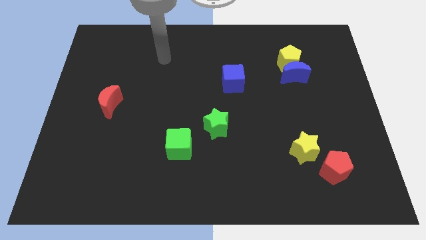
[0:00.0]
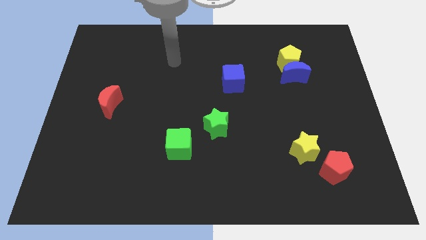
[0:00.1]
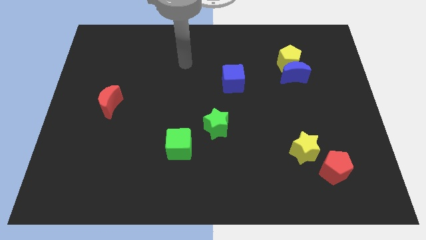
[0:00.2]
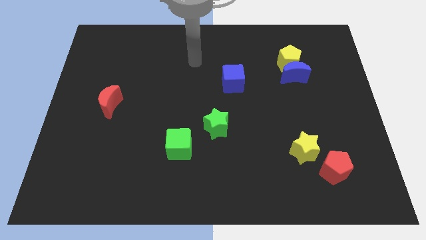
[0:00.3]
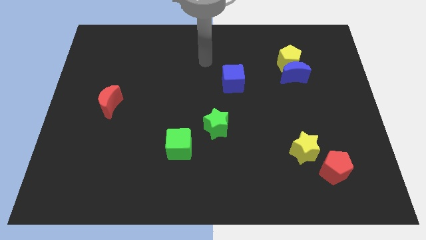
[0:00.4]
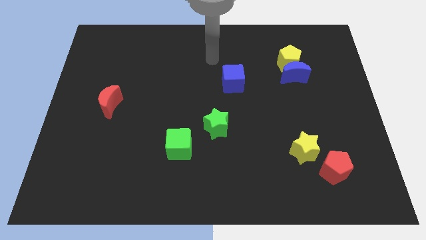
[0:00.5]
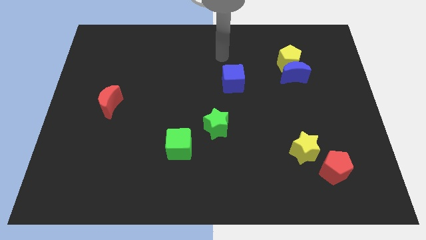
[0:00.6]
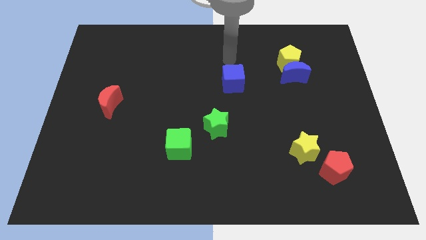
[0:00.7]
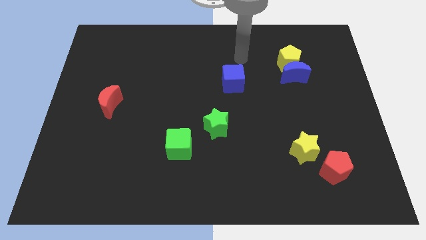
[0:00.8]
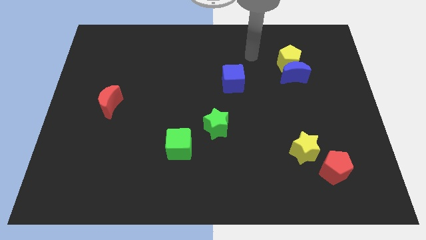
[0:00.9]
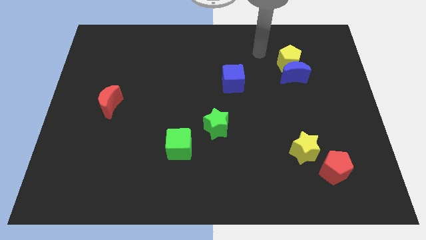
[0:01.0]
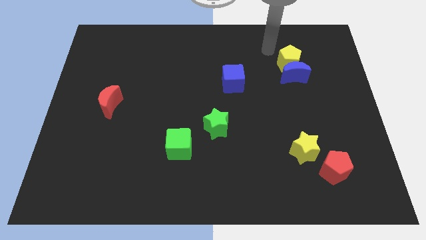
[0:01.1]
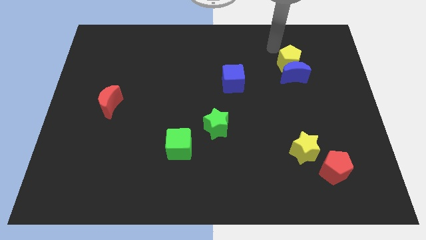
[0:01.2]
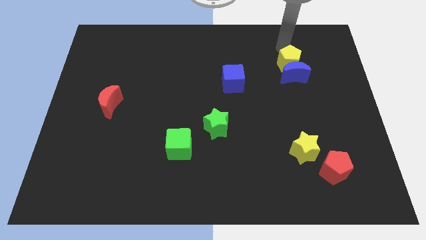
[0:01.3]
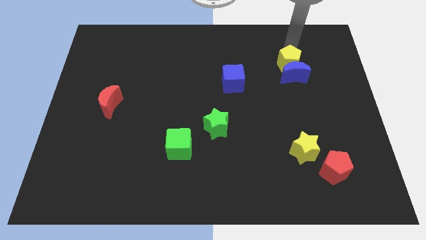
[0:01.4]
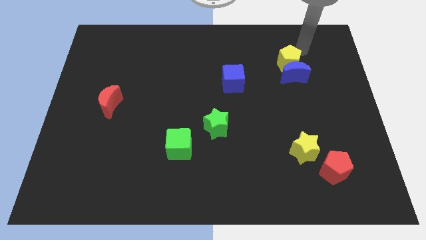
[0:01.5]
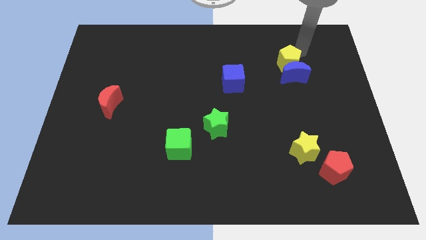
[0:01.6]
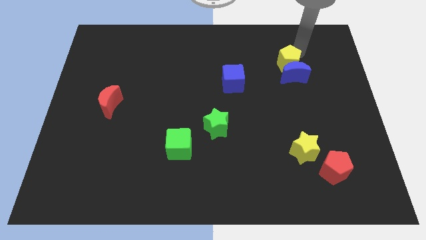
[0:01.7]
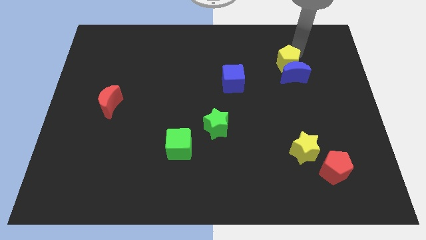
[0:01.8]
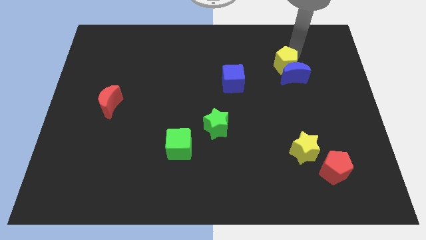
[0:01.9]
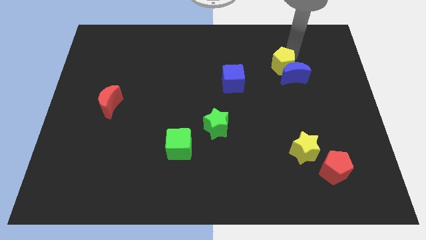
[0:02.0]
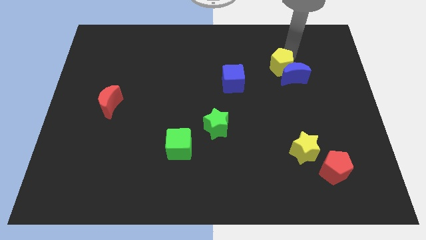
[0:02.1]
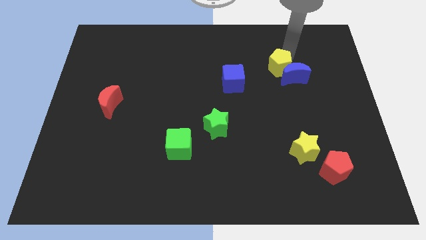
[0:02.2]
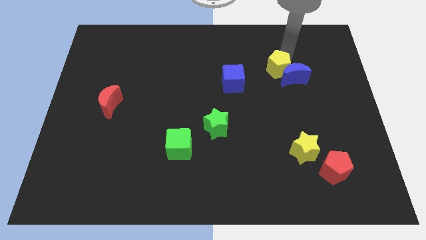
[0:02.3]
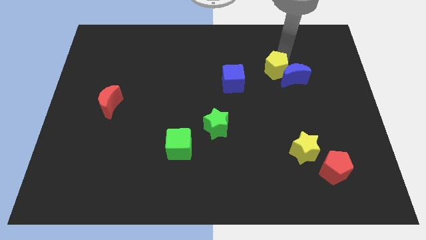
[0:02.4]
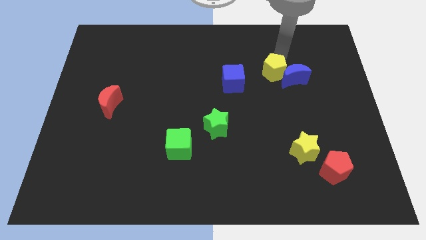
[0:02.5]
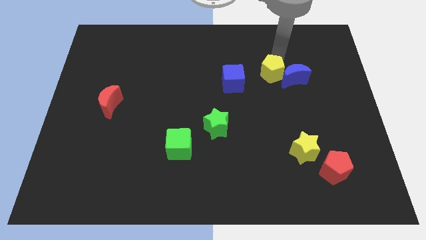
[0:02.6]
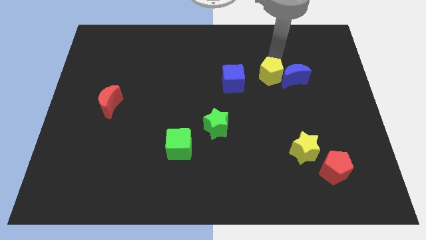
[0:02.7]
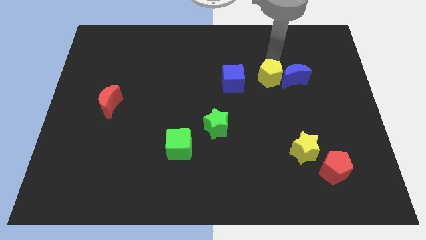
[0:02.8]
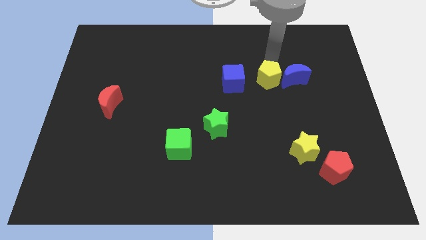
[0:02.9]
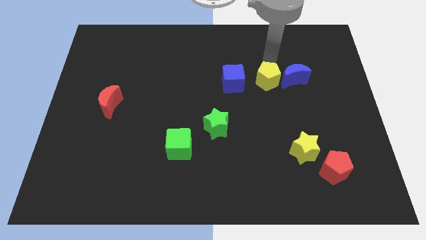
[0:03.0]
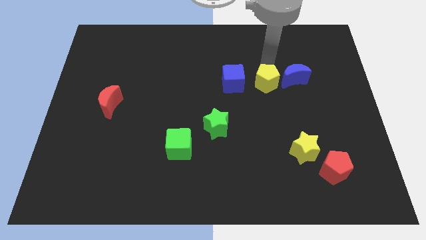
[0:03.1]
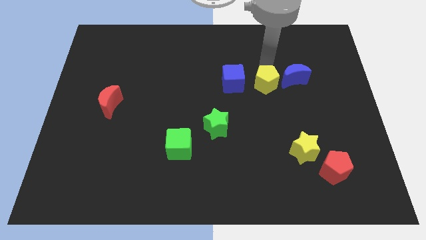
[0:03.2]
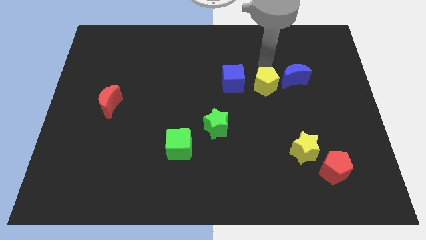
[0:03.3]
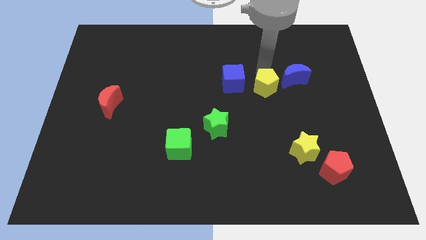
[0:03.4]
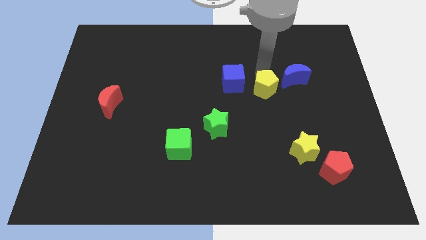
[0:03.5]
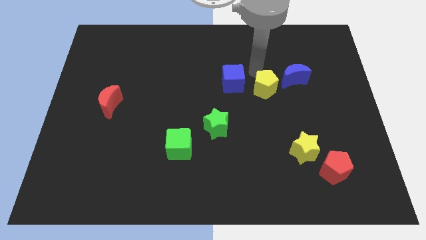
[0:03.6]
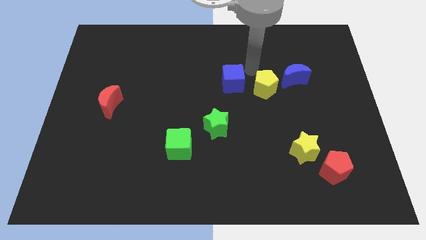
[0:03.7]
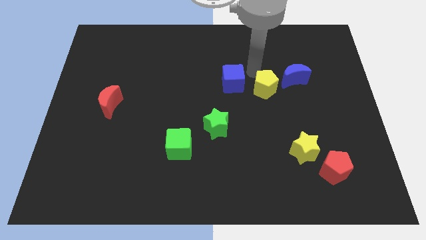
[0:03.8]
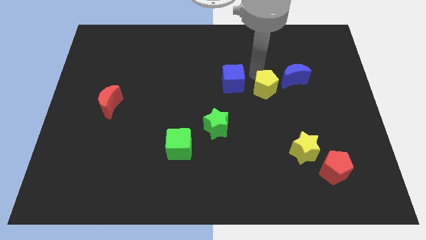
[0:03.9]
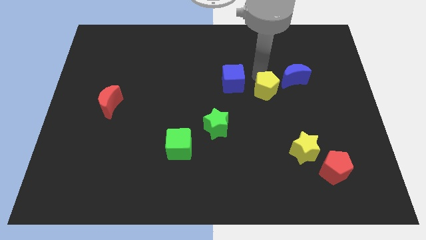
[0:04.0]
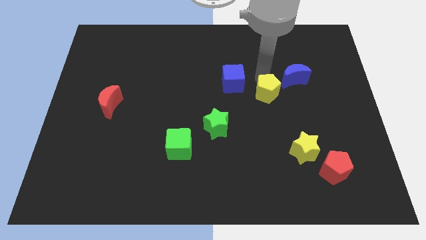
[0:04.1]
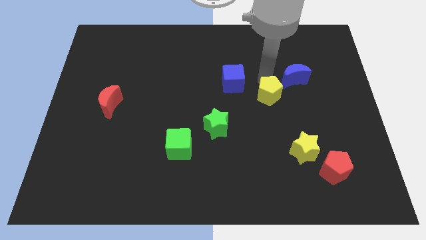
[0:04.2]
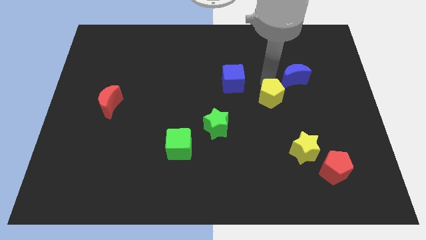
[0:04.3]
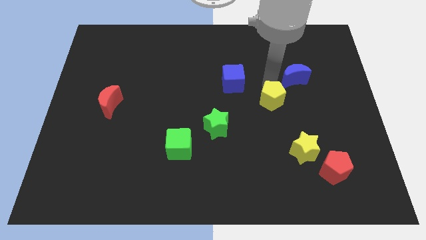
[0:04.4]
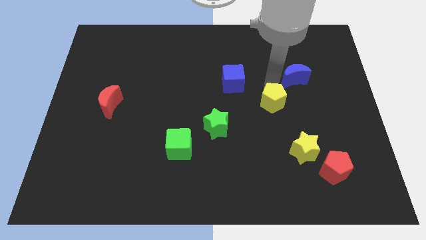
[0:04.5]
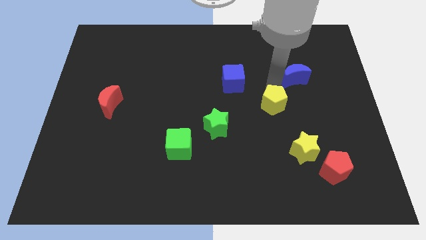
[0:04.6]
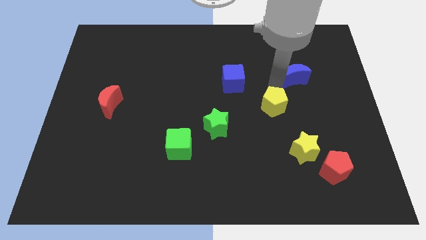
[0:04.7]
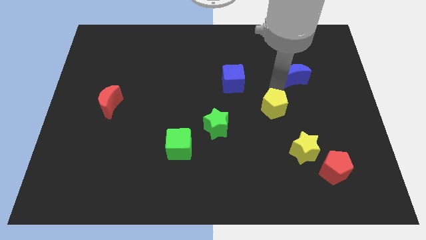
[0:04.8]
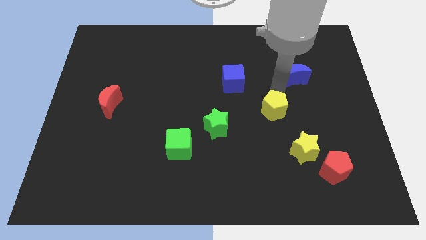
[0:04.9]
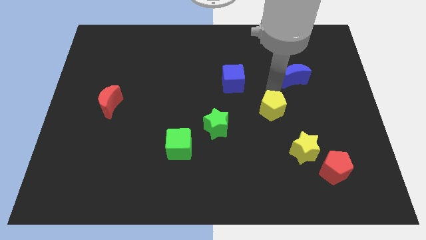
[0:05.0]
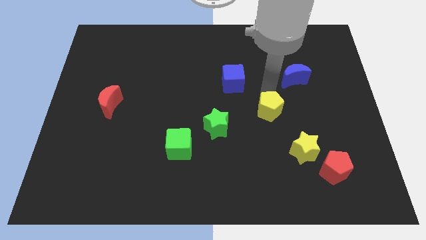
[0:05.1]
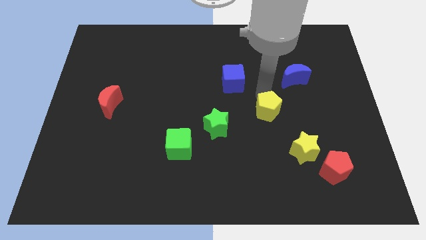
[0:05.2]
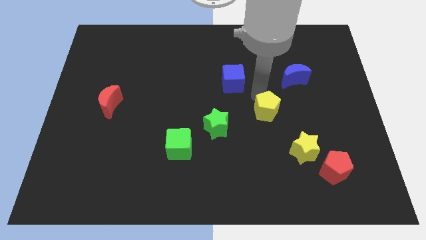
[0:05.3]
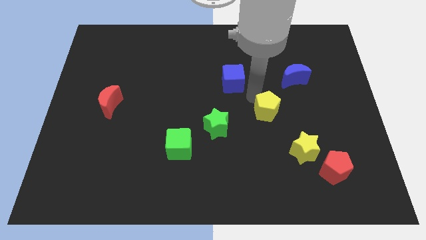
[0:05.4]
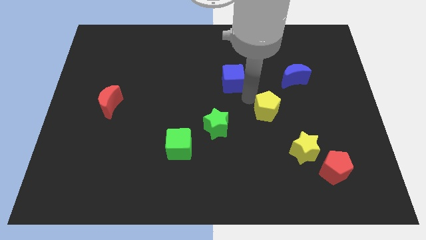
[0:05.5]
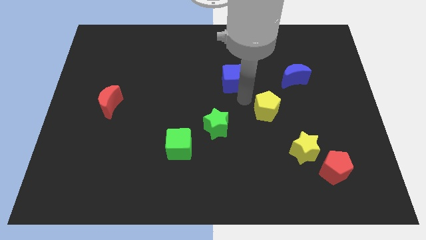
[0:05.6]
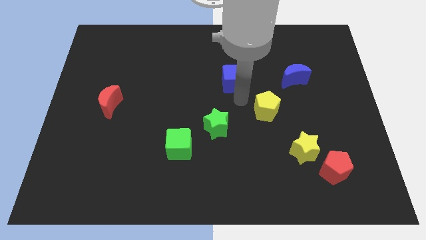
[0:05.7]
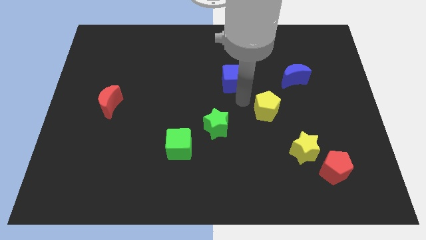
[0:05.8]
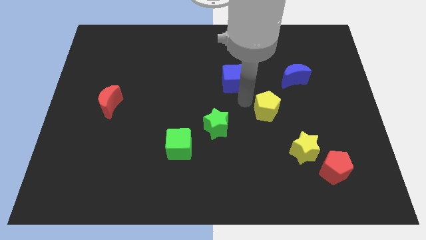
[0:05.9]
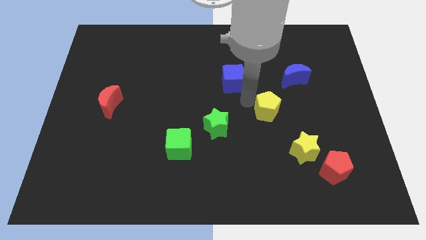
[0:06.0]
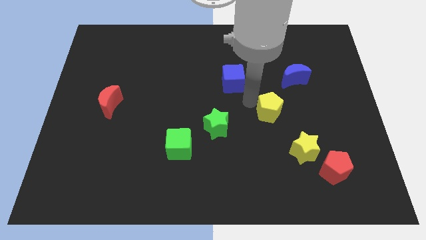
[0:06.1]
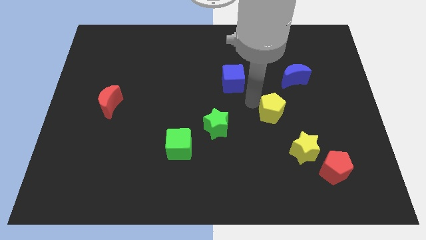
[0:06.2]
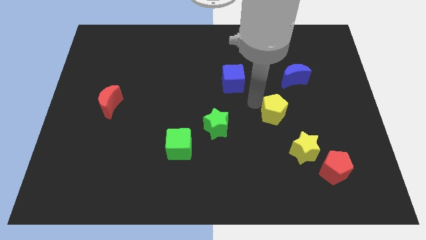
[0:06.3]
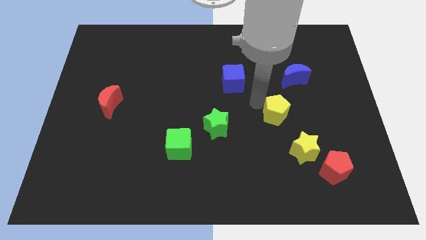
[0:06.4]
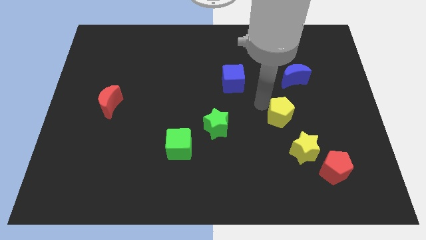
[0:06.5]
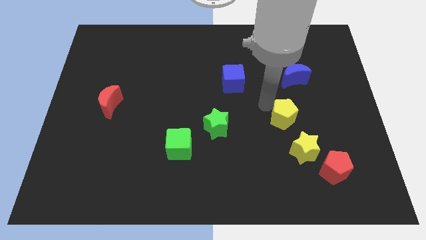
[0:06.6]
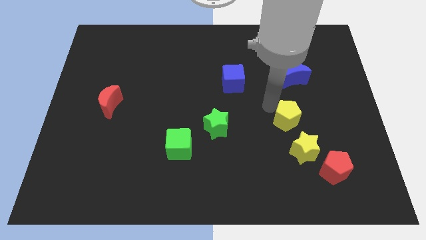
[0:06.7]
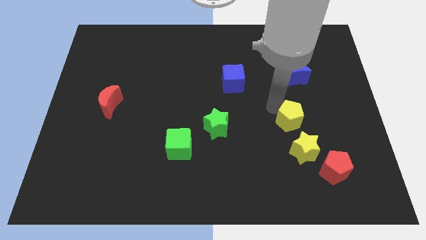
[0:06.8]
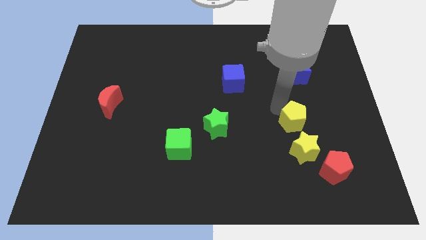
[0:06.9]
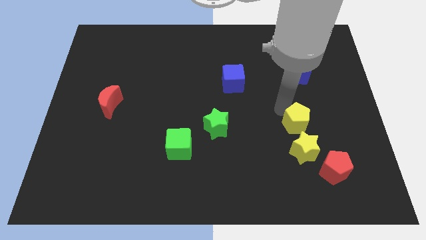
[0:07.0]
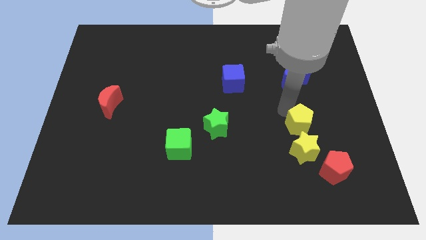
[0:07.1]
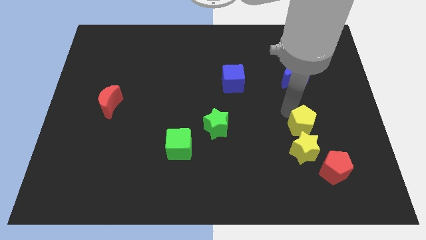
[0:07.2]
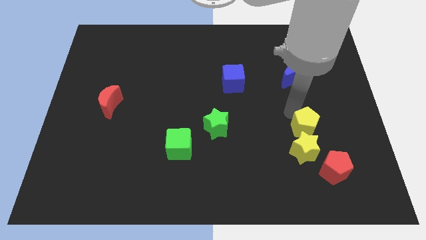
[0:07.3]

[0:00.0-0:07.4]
push the yellow pentagon close to the yellow star
